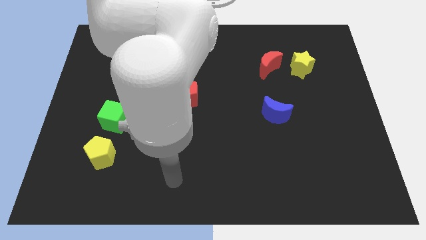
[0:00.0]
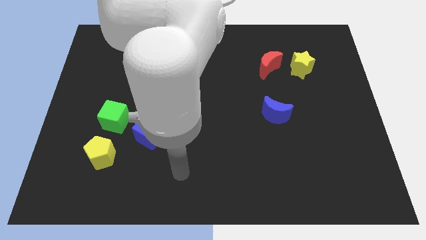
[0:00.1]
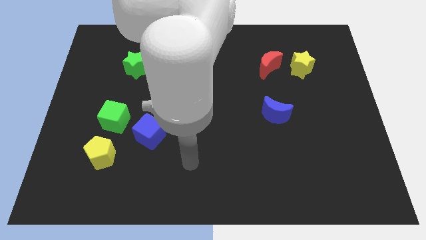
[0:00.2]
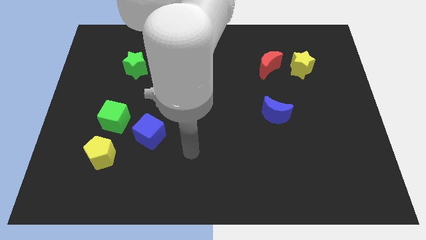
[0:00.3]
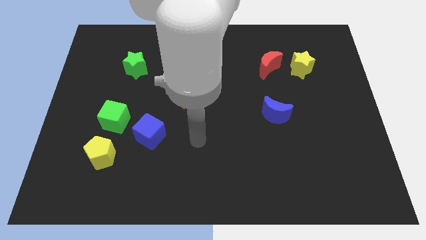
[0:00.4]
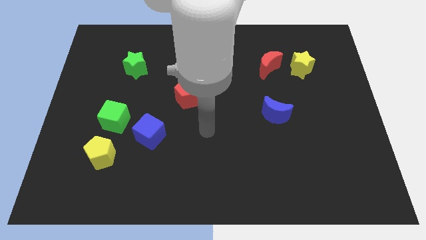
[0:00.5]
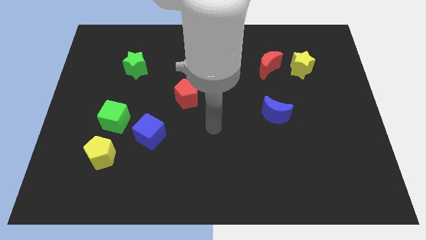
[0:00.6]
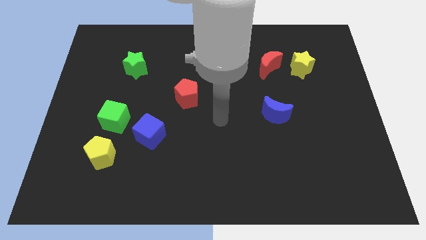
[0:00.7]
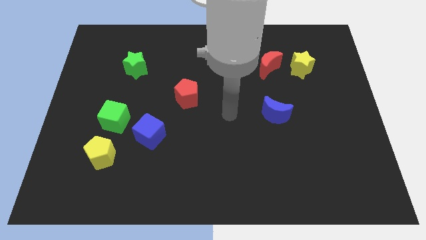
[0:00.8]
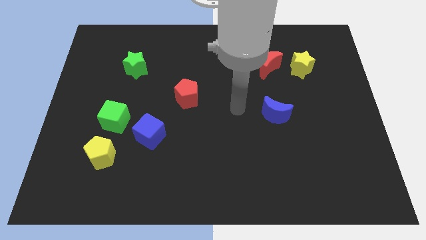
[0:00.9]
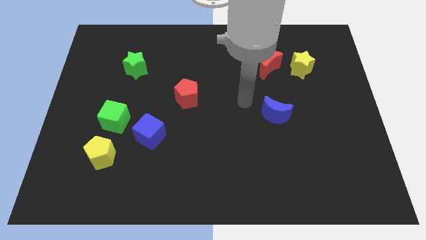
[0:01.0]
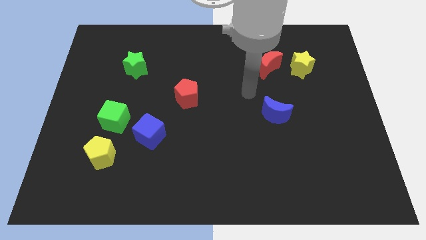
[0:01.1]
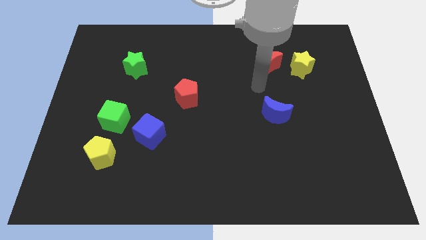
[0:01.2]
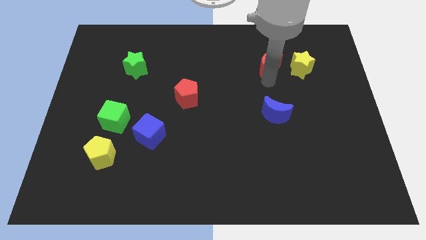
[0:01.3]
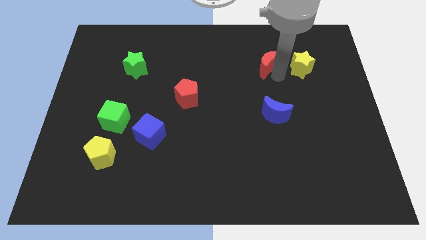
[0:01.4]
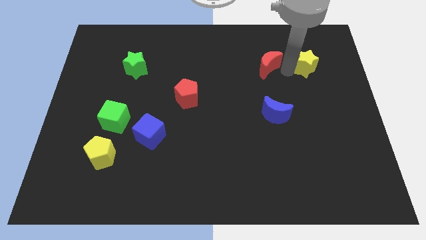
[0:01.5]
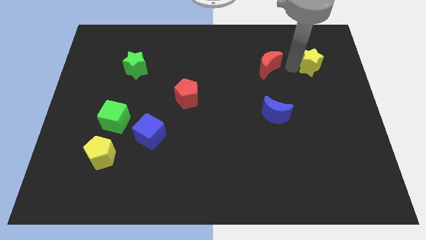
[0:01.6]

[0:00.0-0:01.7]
pull the red moon apart from the yellow star

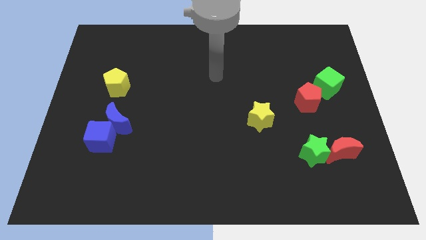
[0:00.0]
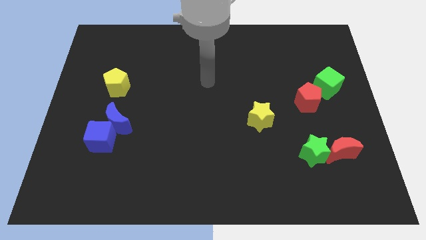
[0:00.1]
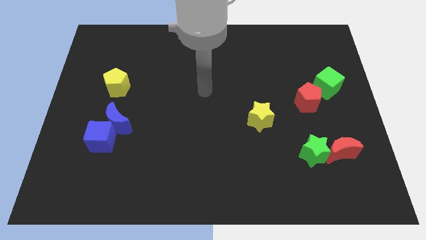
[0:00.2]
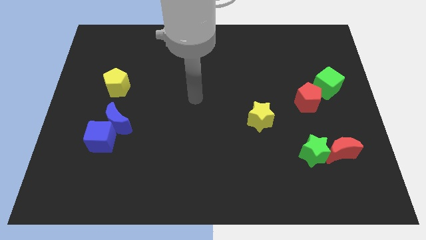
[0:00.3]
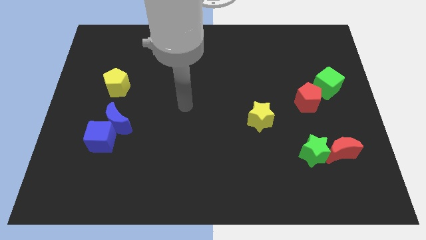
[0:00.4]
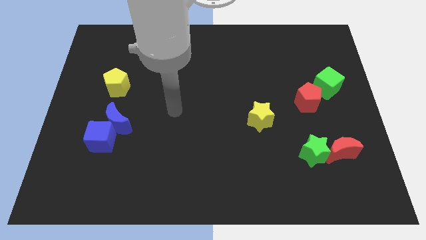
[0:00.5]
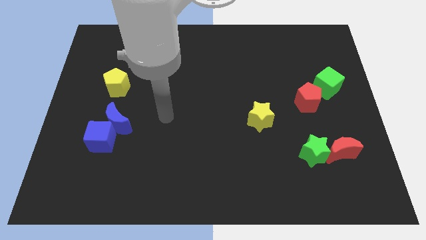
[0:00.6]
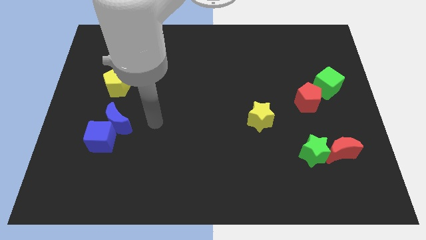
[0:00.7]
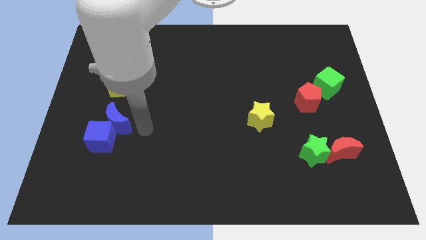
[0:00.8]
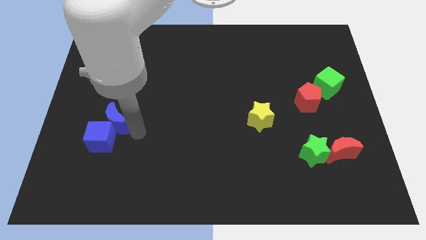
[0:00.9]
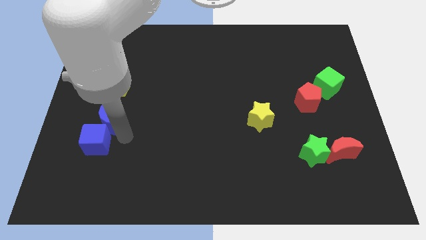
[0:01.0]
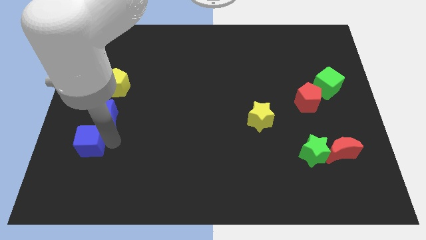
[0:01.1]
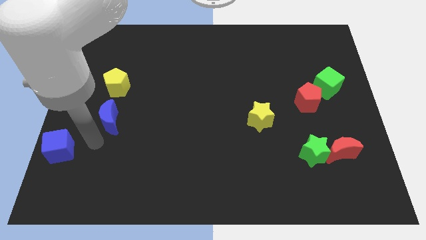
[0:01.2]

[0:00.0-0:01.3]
move the blue moon away from the blue cube

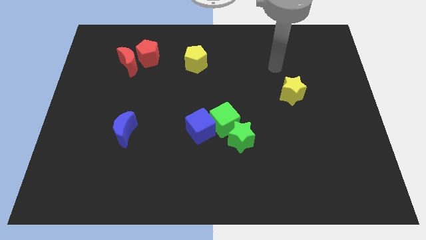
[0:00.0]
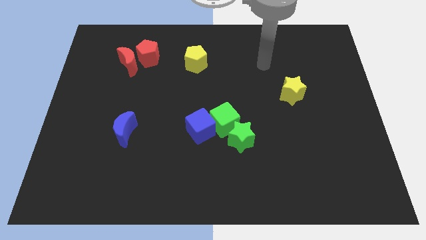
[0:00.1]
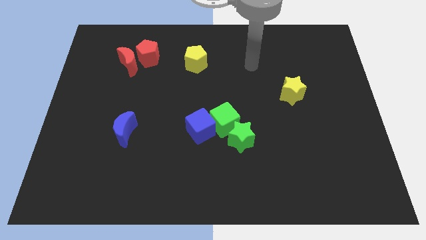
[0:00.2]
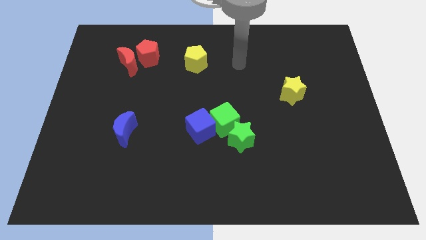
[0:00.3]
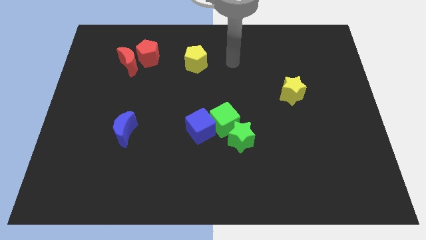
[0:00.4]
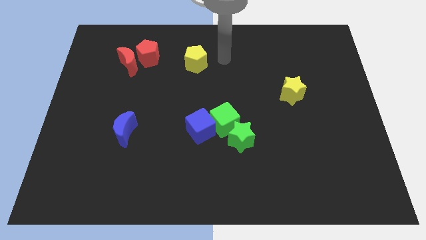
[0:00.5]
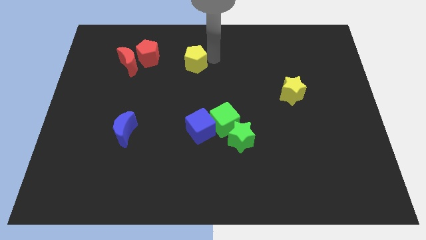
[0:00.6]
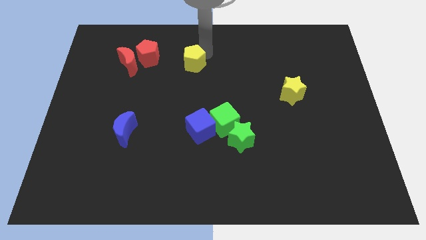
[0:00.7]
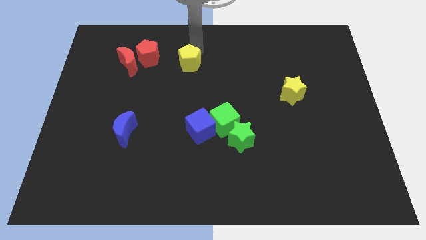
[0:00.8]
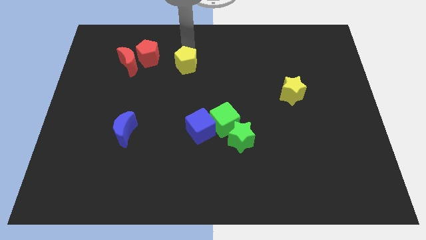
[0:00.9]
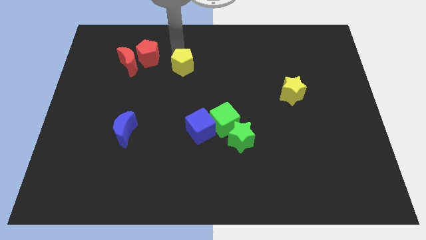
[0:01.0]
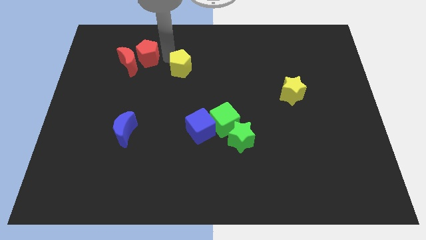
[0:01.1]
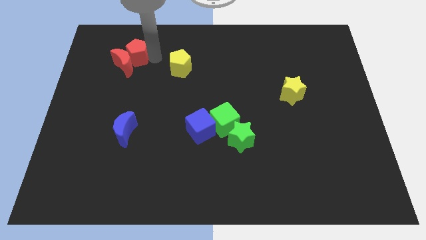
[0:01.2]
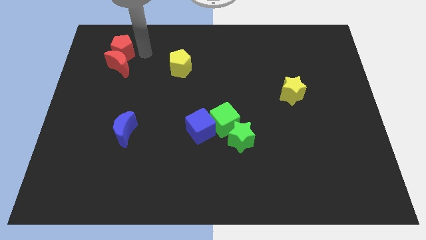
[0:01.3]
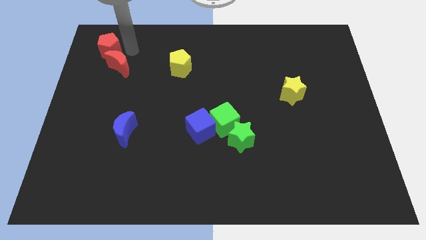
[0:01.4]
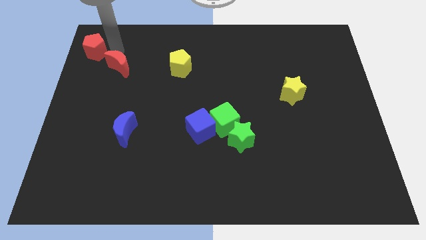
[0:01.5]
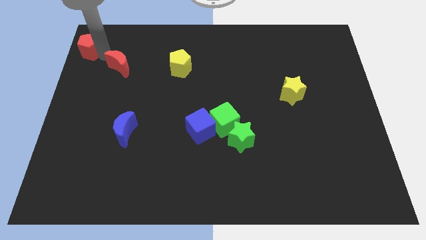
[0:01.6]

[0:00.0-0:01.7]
pull the red moon apart from the red pentagon

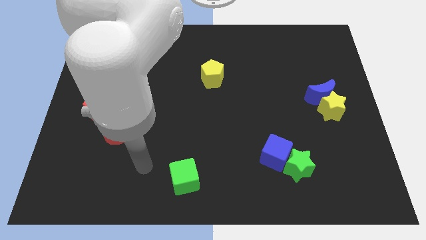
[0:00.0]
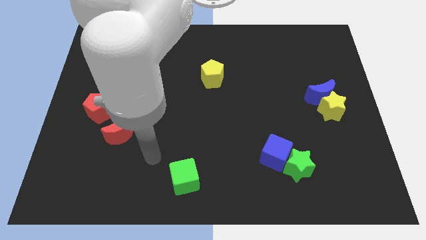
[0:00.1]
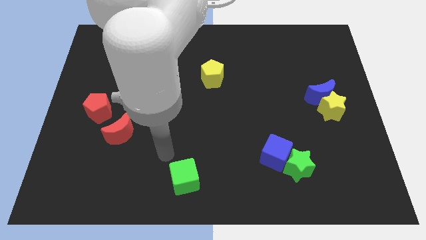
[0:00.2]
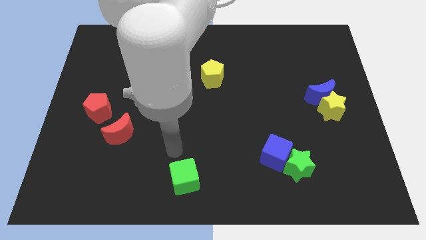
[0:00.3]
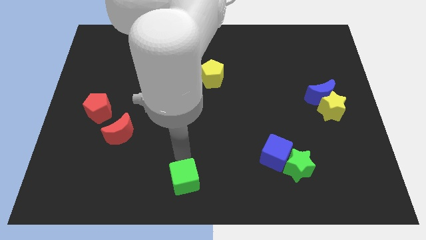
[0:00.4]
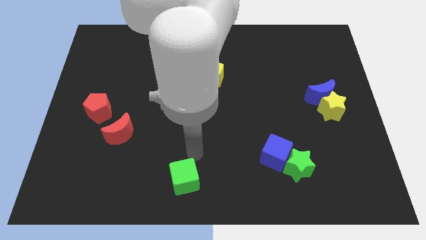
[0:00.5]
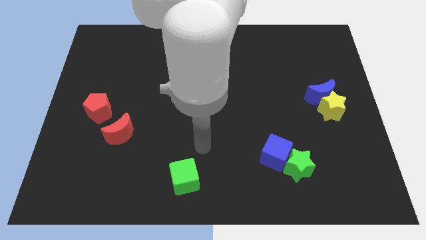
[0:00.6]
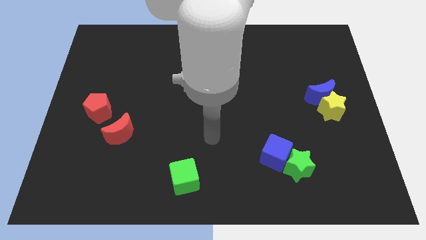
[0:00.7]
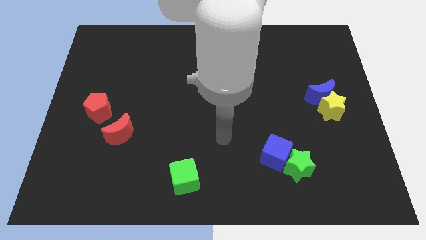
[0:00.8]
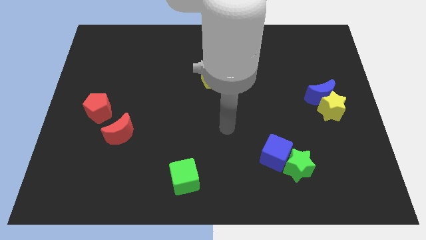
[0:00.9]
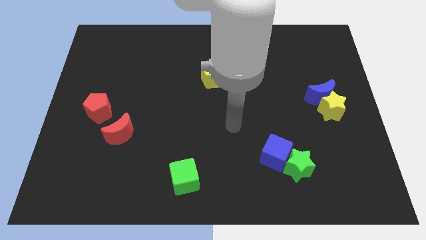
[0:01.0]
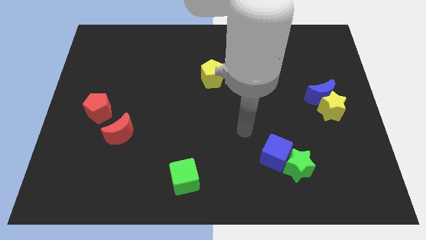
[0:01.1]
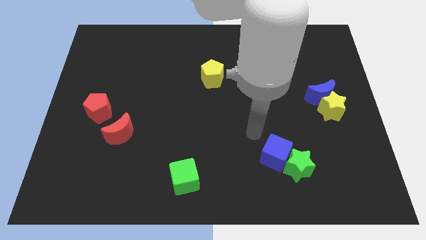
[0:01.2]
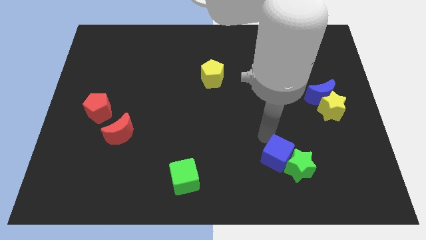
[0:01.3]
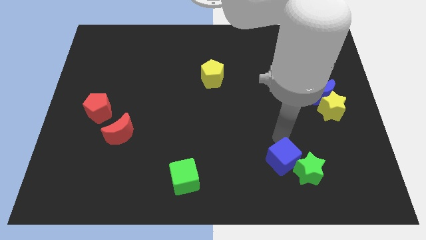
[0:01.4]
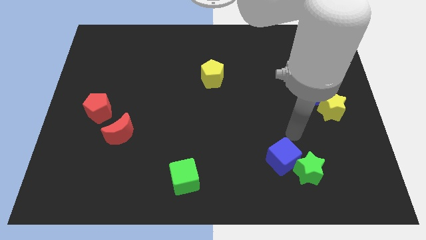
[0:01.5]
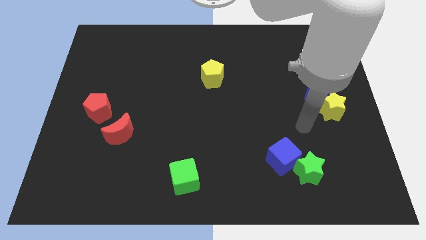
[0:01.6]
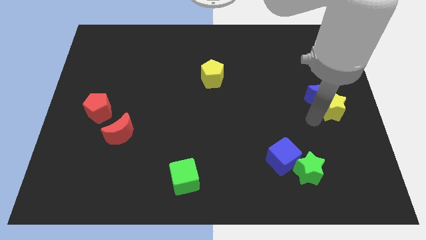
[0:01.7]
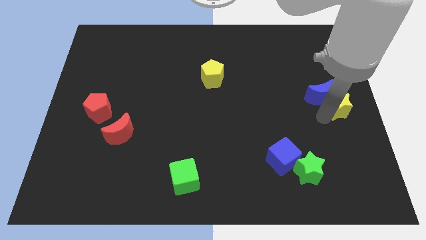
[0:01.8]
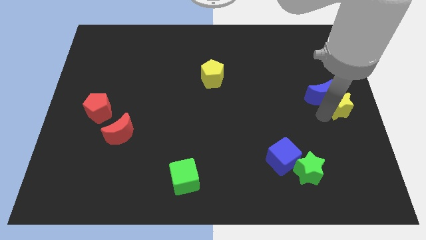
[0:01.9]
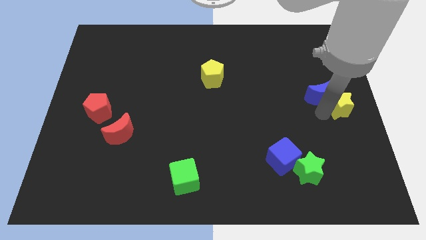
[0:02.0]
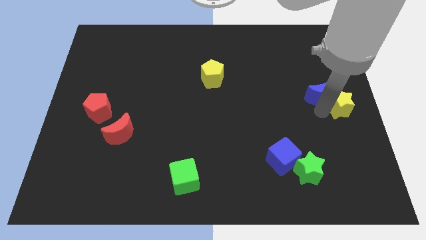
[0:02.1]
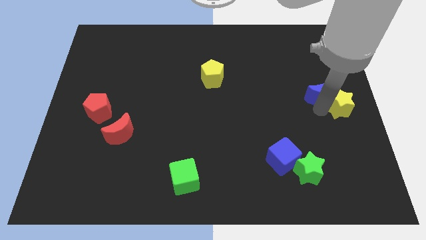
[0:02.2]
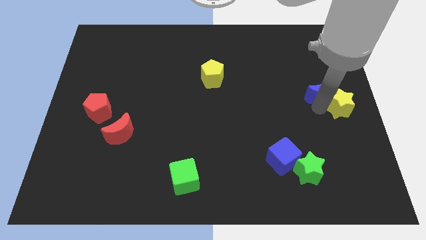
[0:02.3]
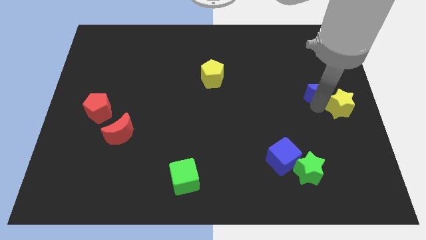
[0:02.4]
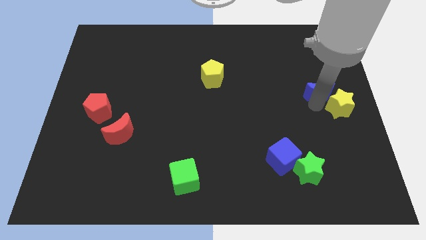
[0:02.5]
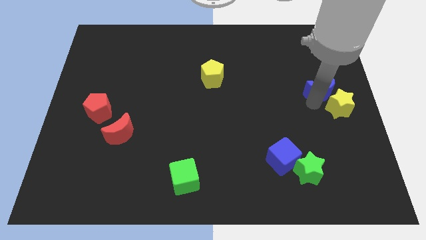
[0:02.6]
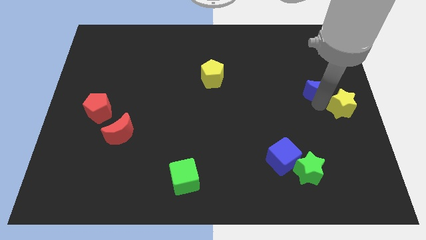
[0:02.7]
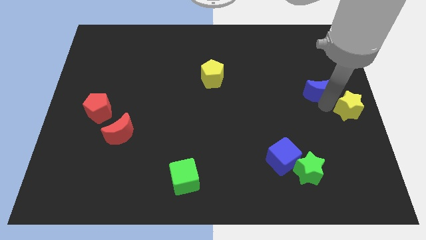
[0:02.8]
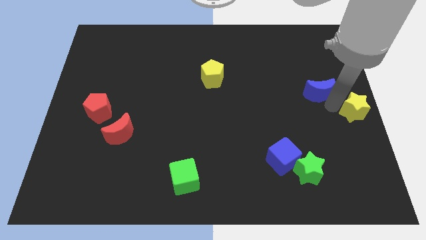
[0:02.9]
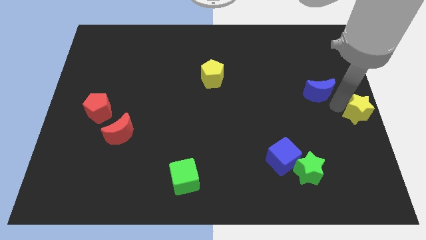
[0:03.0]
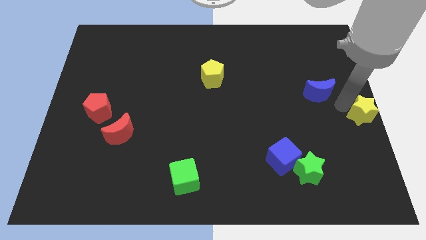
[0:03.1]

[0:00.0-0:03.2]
move the blue moon away from the yellow star

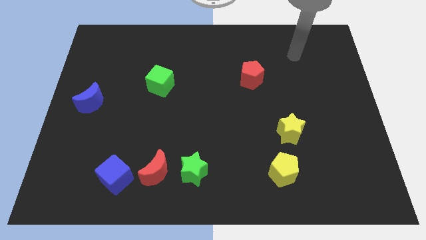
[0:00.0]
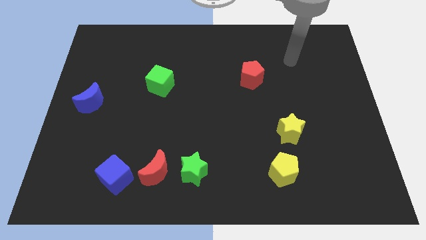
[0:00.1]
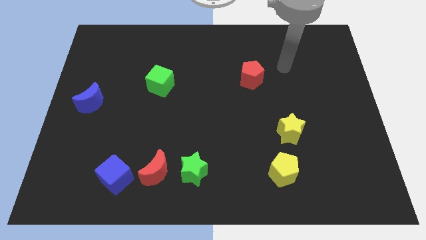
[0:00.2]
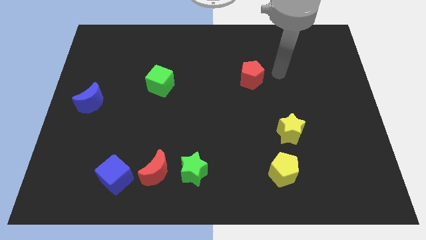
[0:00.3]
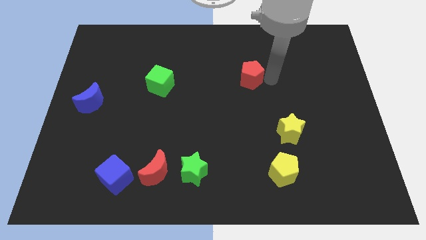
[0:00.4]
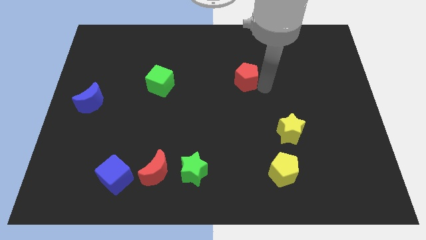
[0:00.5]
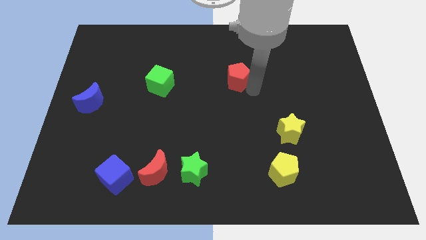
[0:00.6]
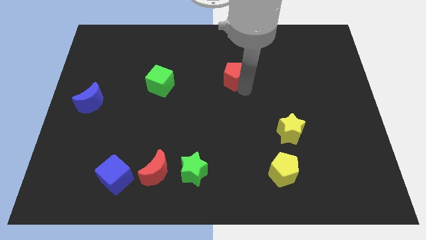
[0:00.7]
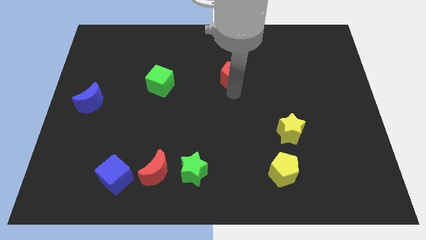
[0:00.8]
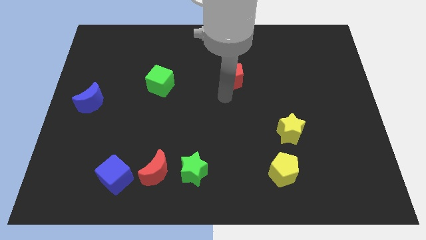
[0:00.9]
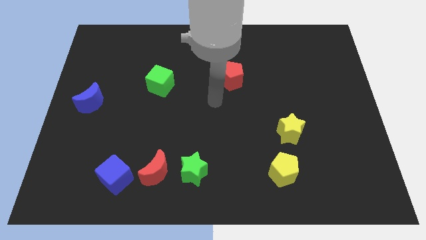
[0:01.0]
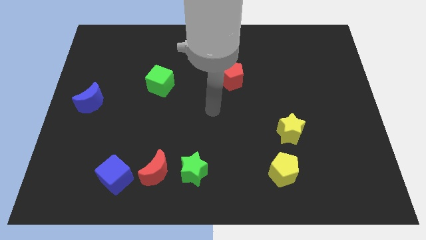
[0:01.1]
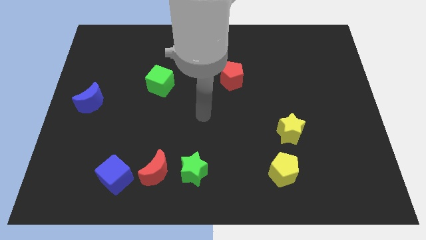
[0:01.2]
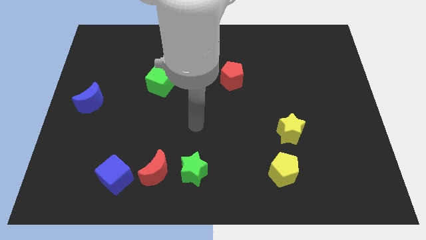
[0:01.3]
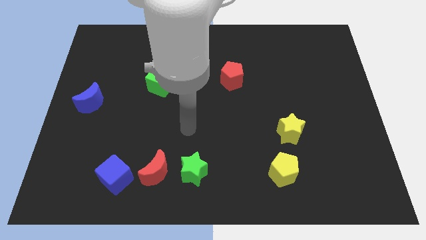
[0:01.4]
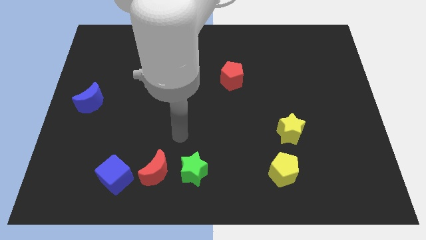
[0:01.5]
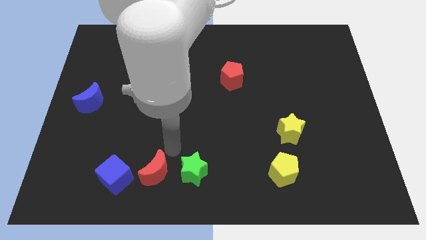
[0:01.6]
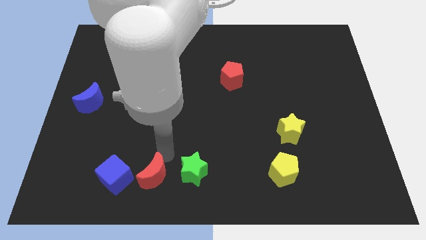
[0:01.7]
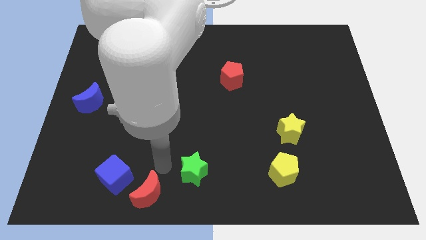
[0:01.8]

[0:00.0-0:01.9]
pull the green star apart from the red moon
